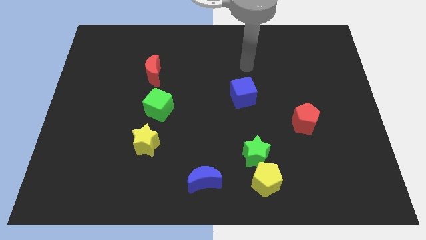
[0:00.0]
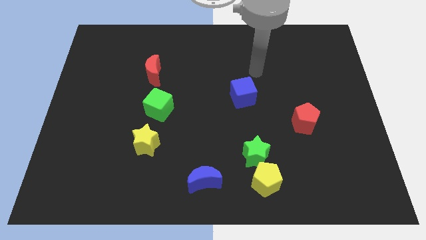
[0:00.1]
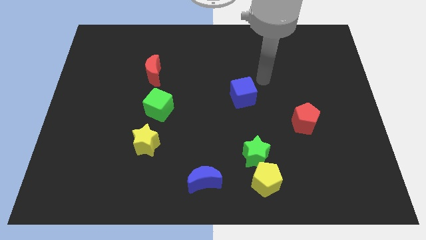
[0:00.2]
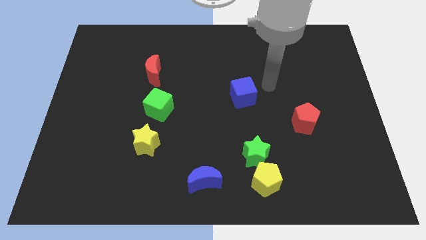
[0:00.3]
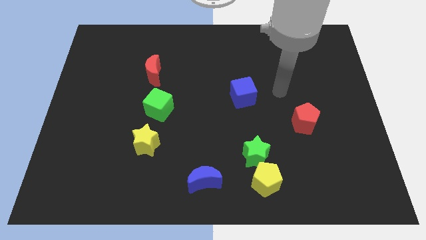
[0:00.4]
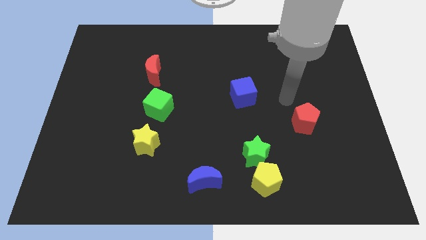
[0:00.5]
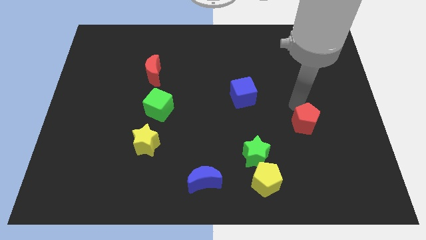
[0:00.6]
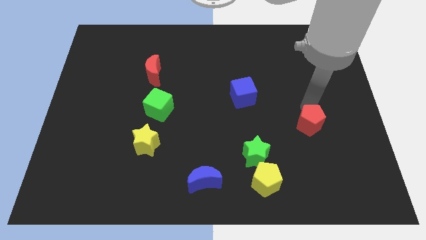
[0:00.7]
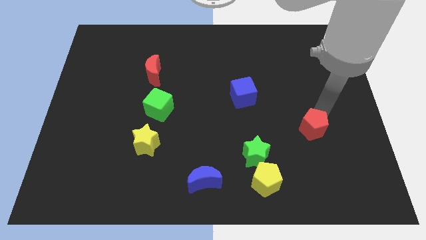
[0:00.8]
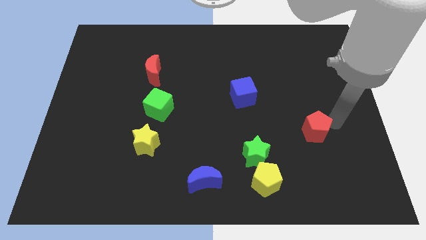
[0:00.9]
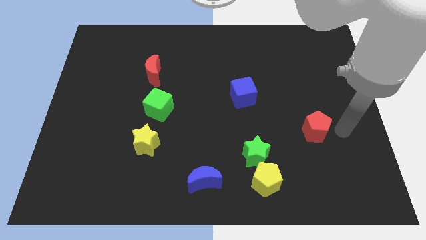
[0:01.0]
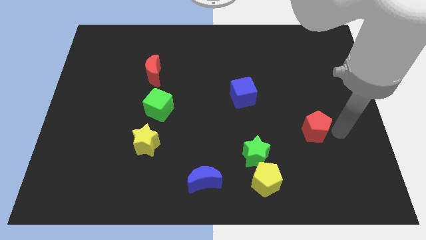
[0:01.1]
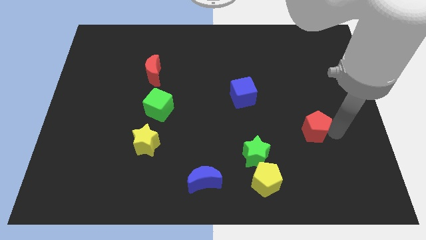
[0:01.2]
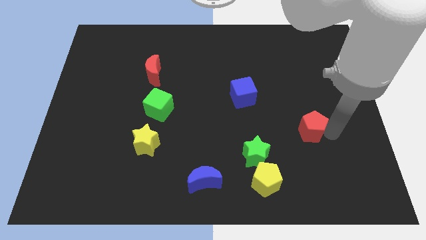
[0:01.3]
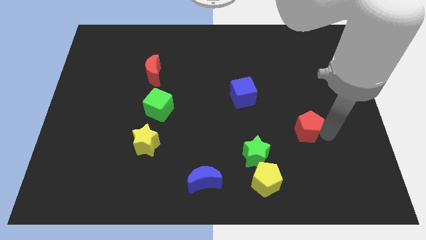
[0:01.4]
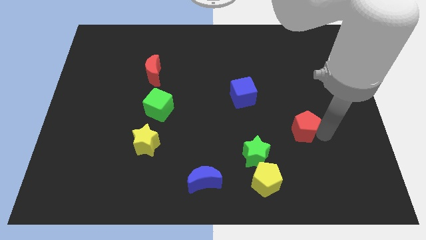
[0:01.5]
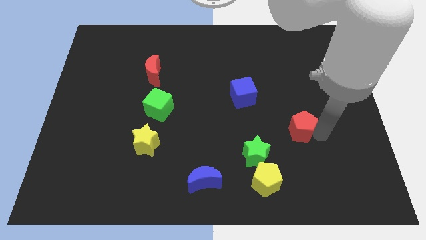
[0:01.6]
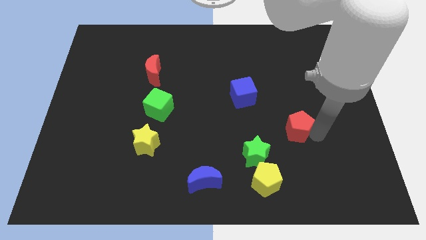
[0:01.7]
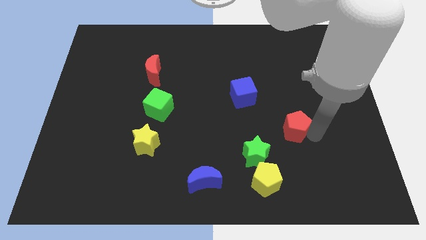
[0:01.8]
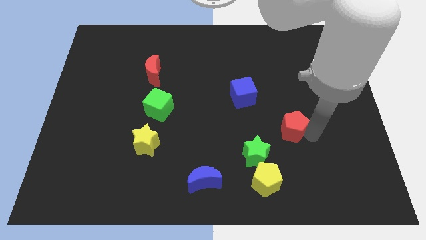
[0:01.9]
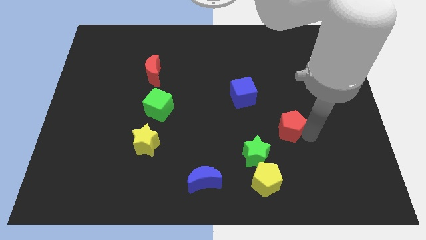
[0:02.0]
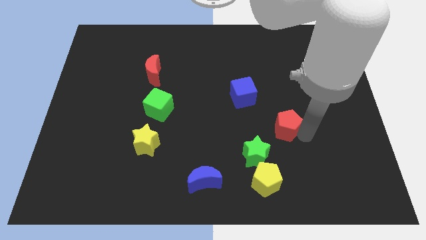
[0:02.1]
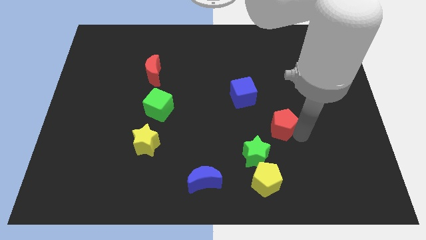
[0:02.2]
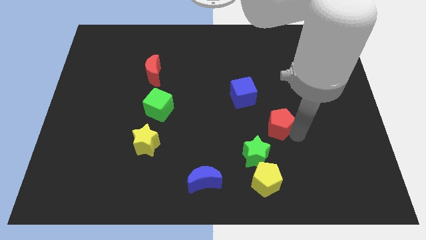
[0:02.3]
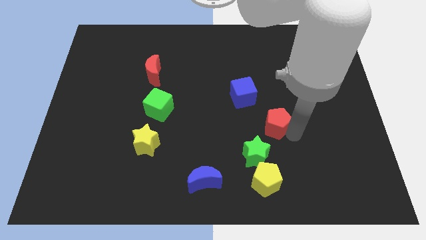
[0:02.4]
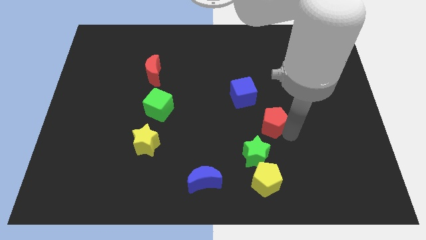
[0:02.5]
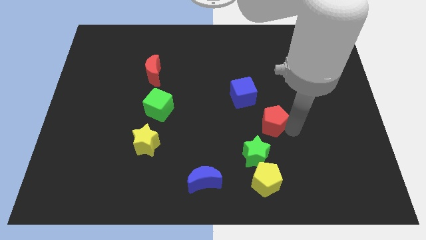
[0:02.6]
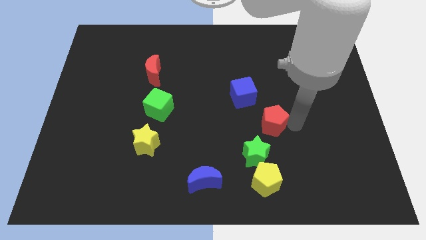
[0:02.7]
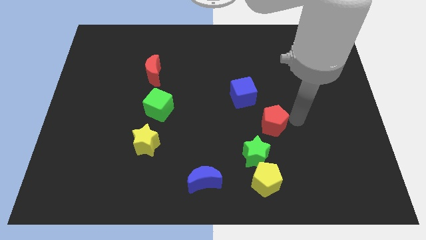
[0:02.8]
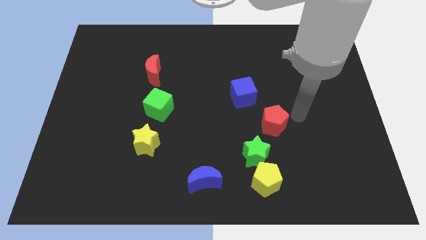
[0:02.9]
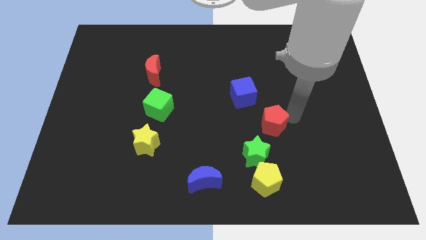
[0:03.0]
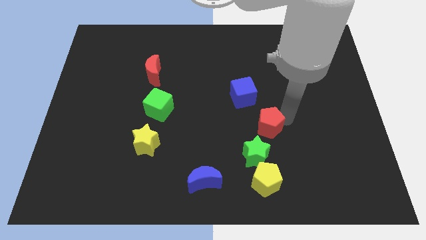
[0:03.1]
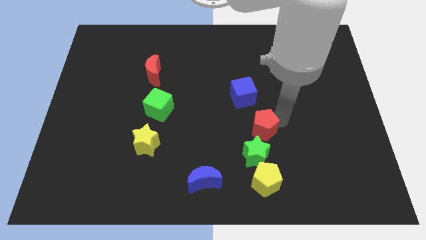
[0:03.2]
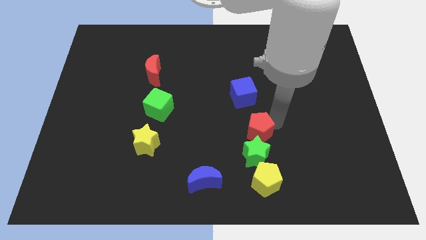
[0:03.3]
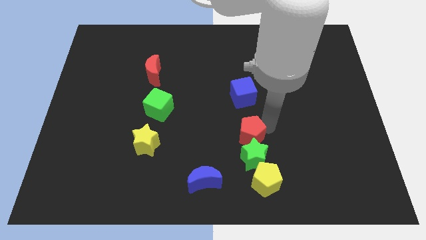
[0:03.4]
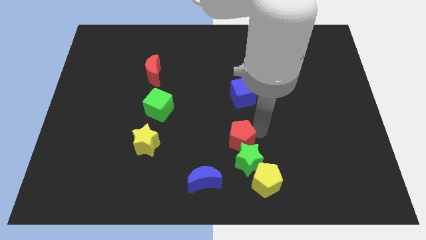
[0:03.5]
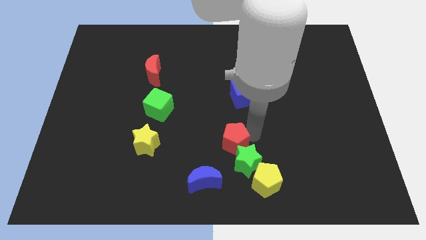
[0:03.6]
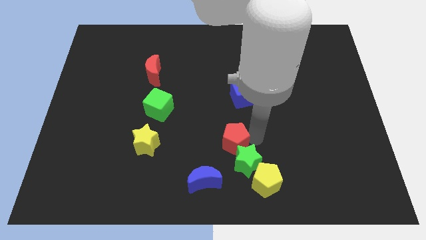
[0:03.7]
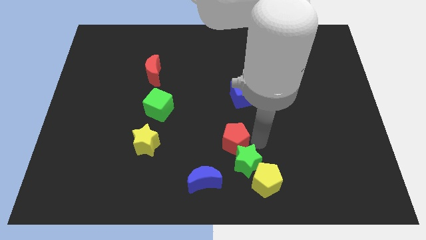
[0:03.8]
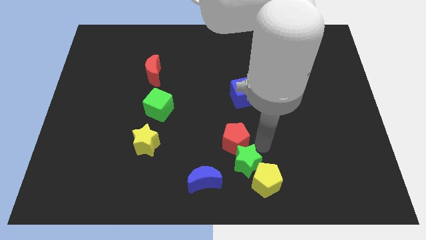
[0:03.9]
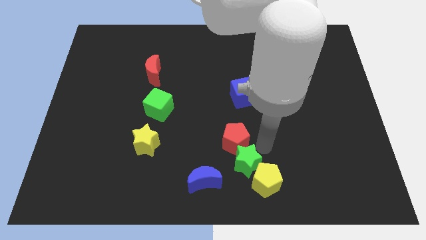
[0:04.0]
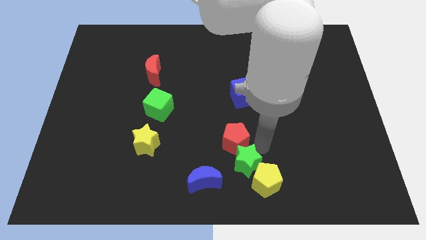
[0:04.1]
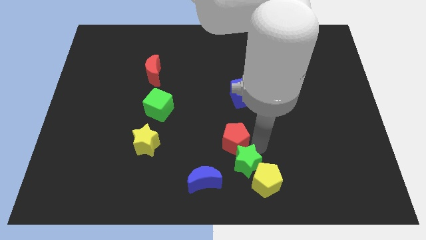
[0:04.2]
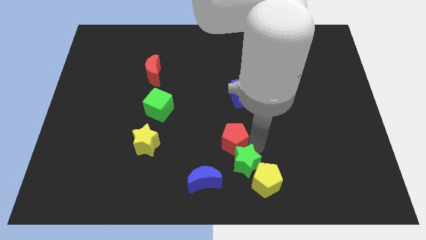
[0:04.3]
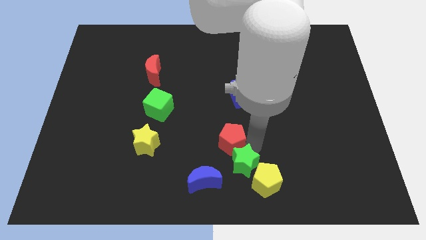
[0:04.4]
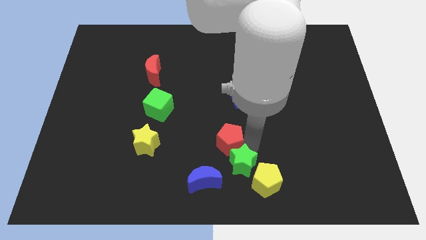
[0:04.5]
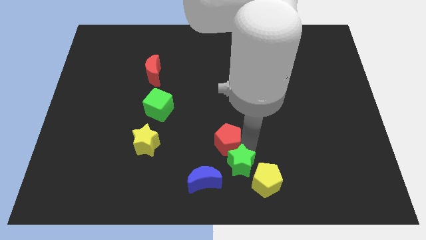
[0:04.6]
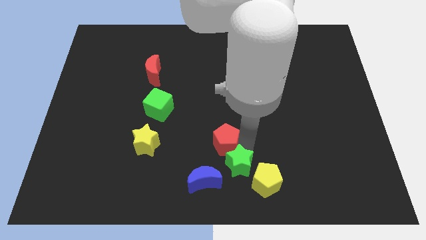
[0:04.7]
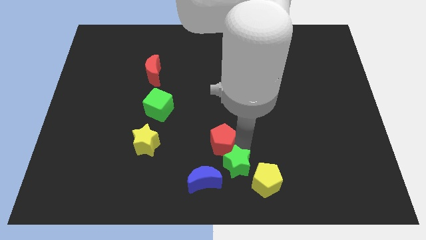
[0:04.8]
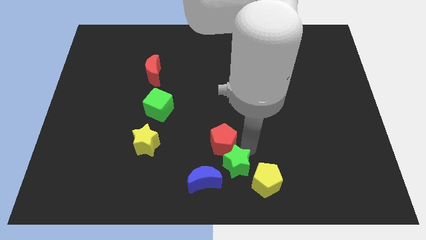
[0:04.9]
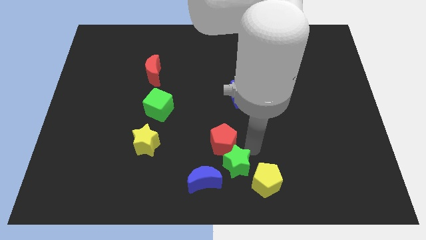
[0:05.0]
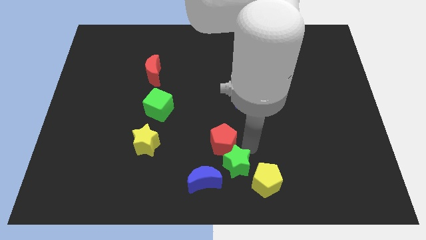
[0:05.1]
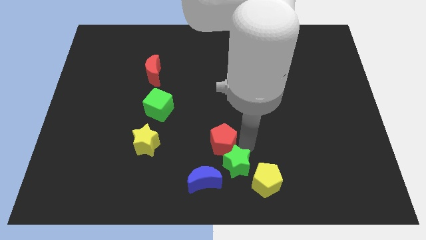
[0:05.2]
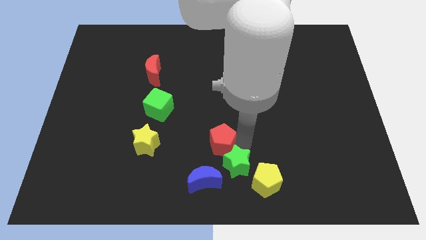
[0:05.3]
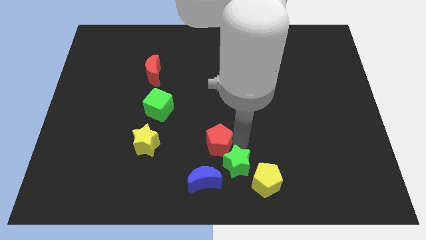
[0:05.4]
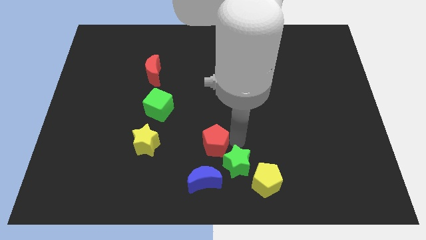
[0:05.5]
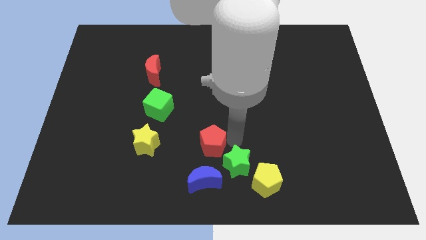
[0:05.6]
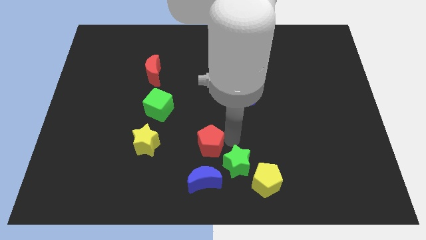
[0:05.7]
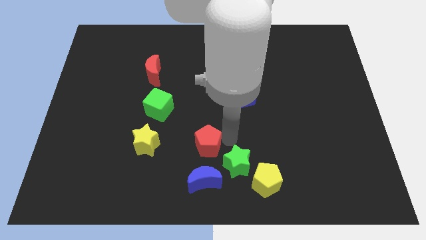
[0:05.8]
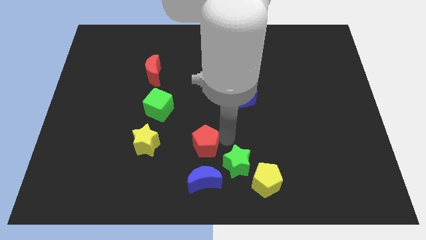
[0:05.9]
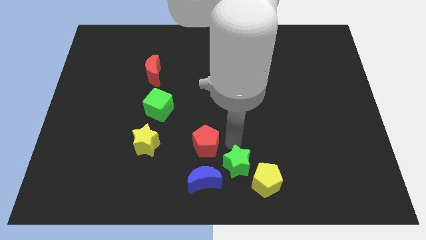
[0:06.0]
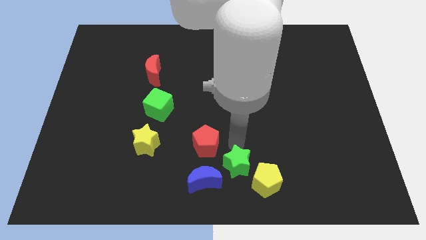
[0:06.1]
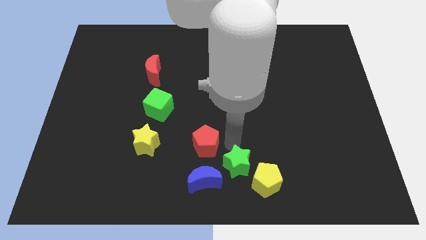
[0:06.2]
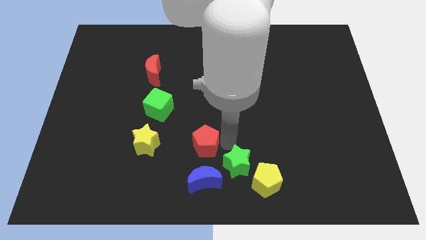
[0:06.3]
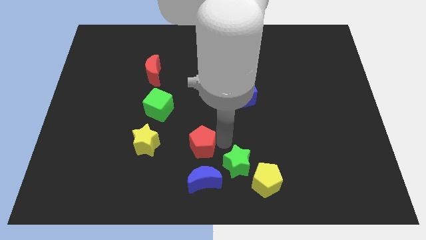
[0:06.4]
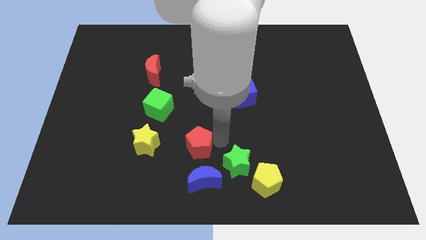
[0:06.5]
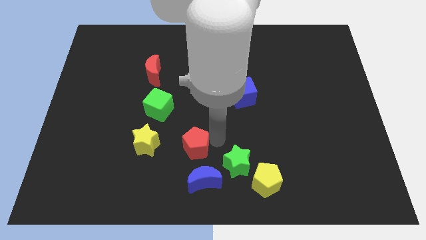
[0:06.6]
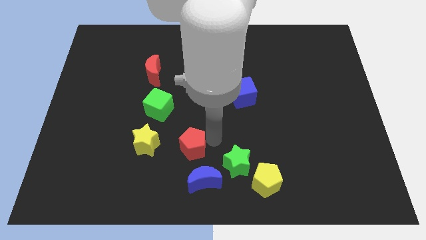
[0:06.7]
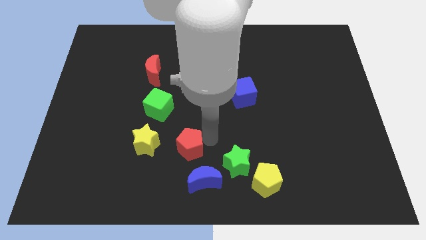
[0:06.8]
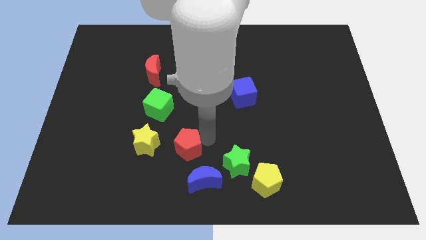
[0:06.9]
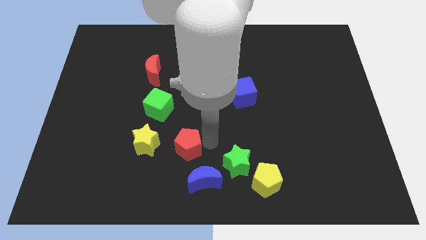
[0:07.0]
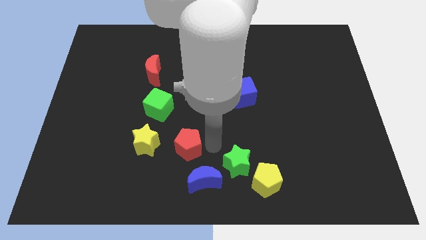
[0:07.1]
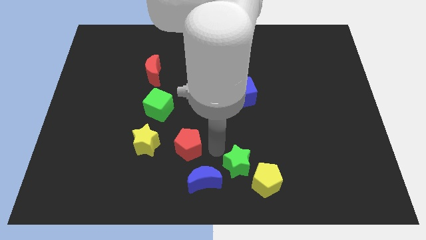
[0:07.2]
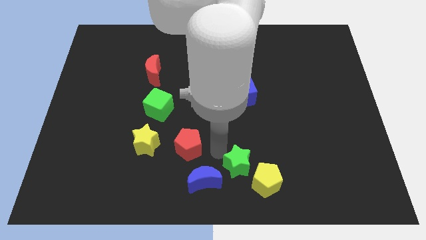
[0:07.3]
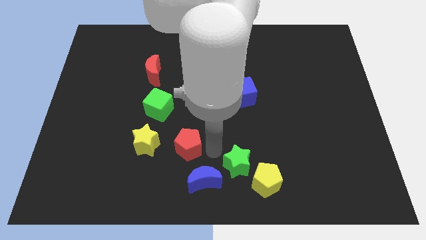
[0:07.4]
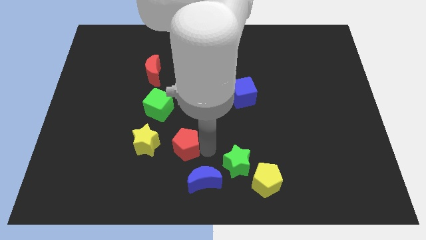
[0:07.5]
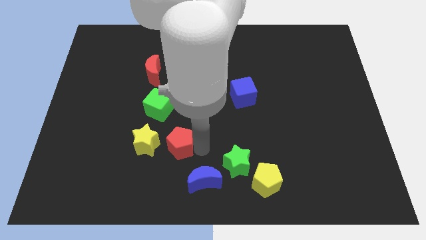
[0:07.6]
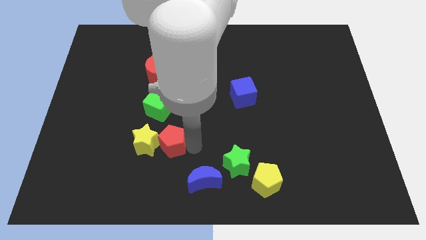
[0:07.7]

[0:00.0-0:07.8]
put the red pentagon towards the yellow star
